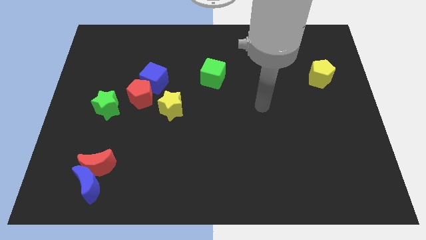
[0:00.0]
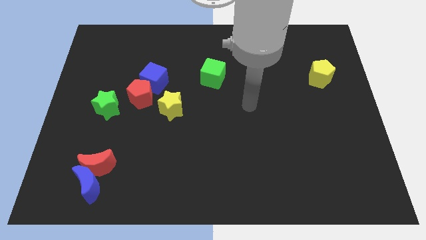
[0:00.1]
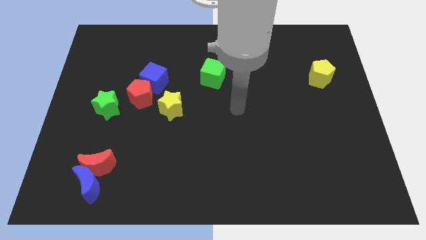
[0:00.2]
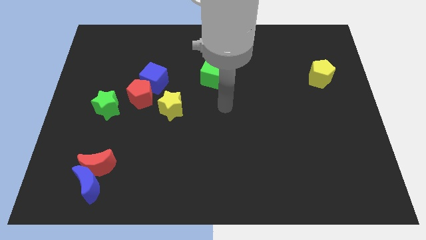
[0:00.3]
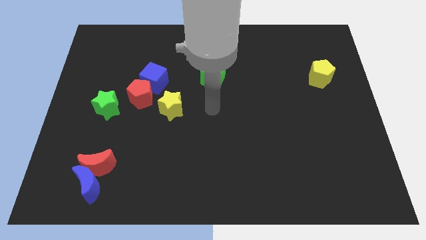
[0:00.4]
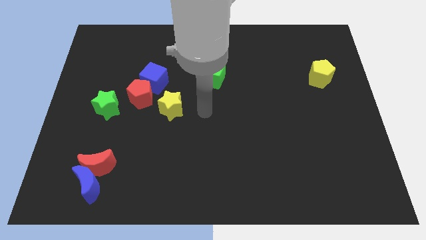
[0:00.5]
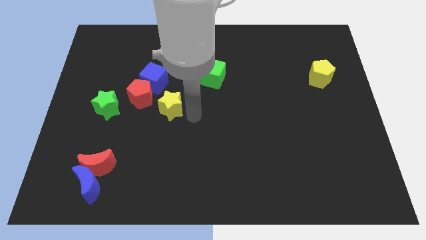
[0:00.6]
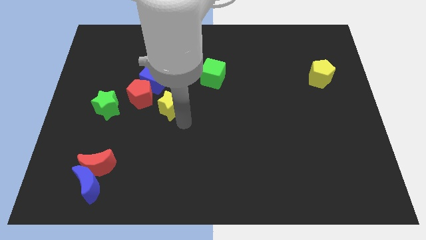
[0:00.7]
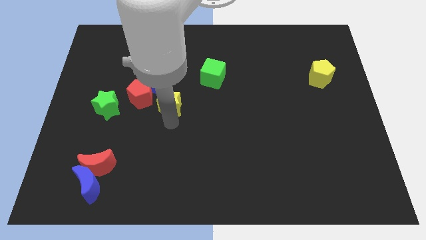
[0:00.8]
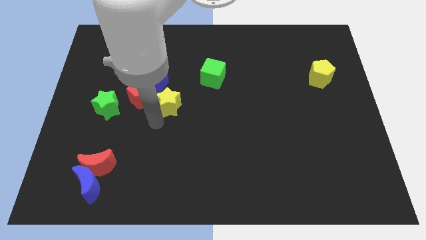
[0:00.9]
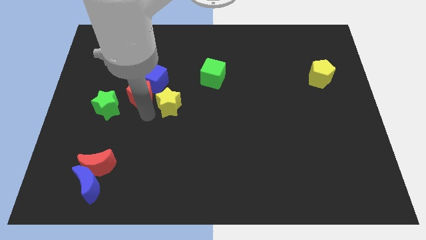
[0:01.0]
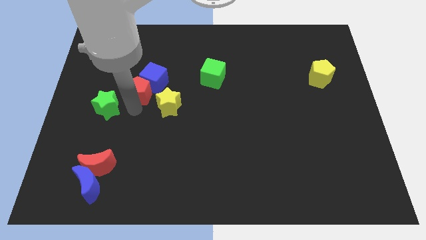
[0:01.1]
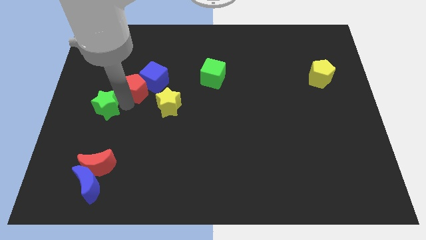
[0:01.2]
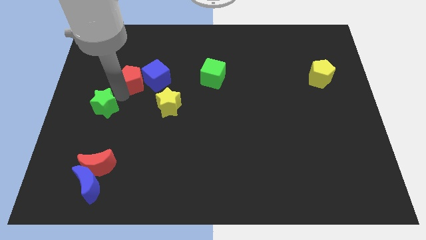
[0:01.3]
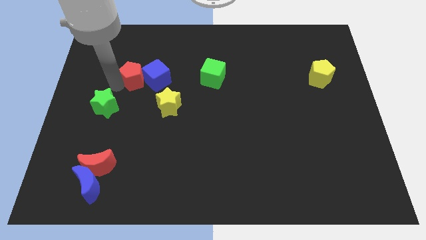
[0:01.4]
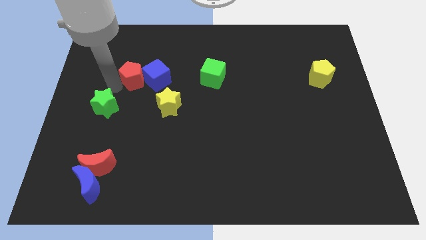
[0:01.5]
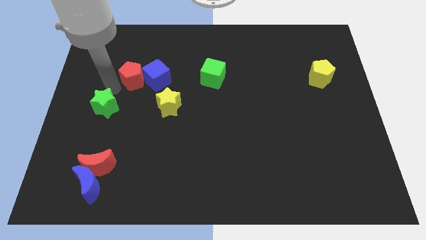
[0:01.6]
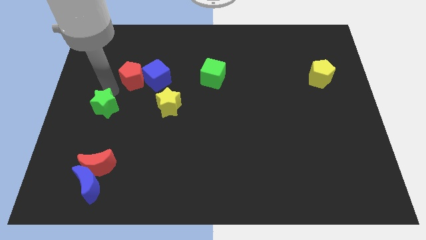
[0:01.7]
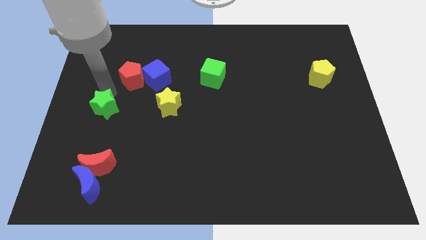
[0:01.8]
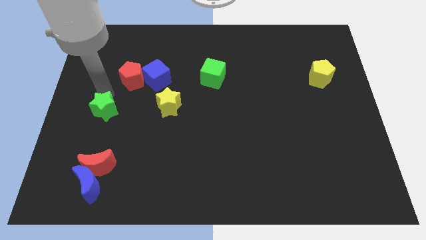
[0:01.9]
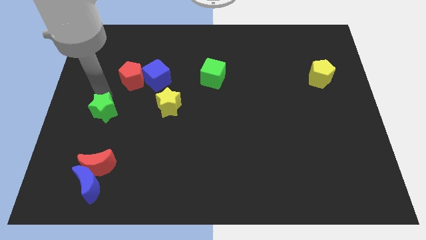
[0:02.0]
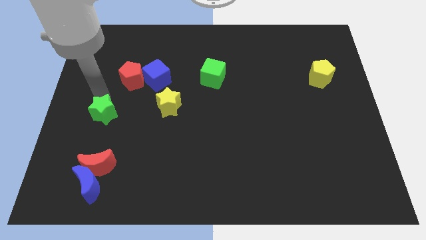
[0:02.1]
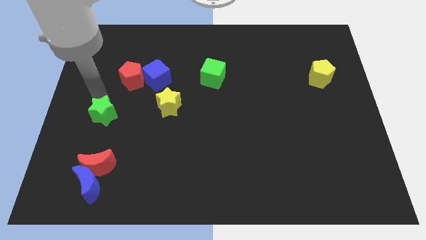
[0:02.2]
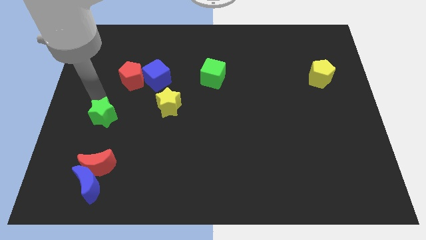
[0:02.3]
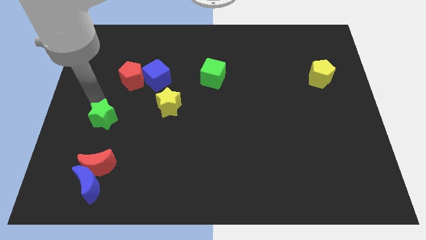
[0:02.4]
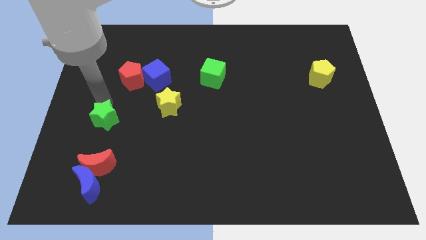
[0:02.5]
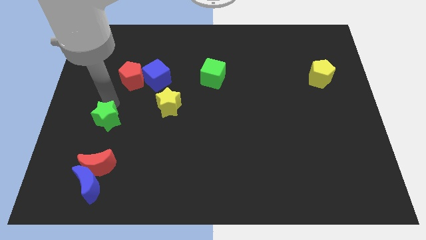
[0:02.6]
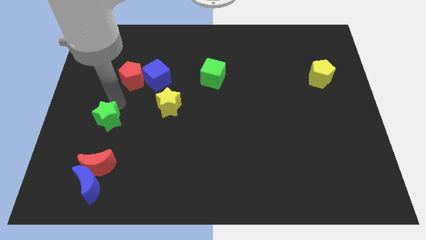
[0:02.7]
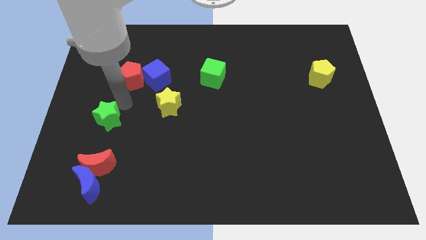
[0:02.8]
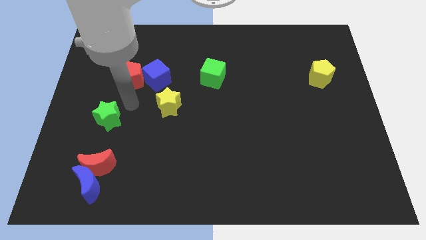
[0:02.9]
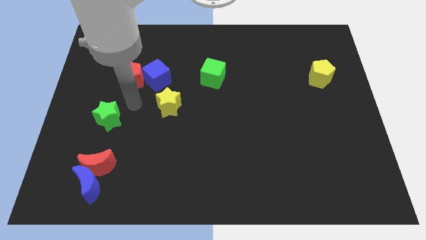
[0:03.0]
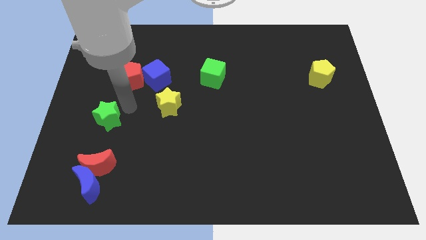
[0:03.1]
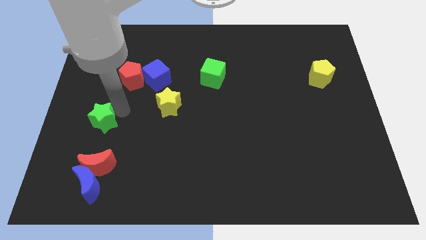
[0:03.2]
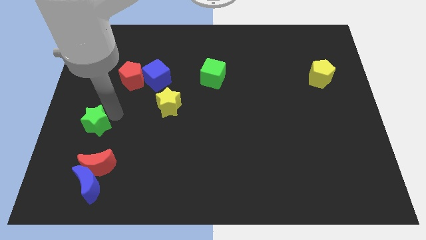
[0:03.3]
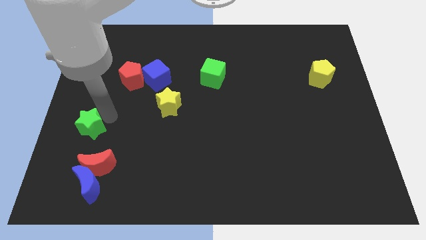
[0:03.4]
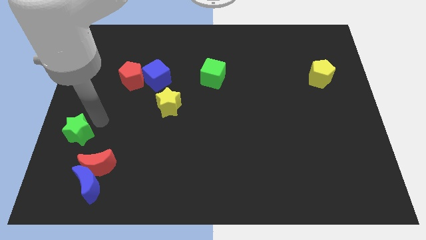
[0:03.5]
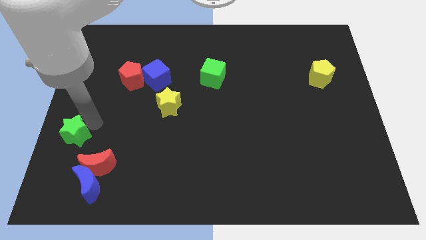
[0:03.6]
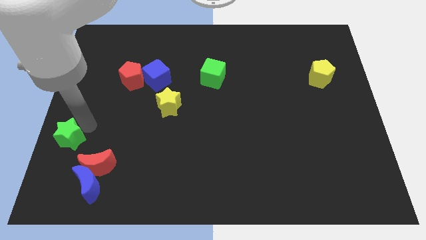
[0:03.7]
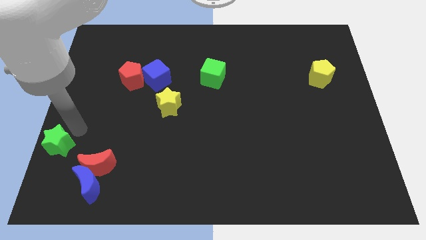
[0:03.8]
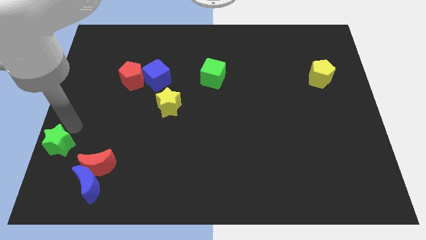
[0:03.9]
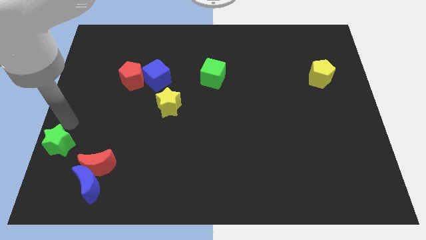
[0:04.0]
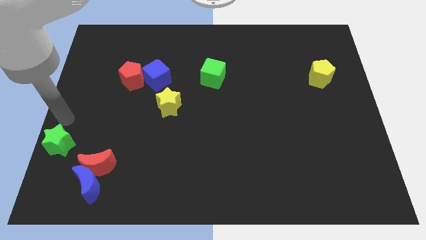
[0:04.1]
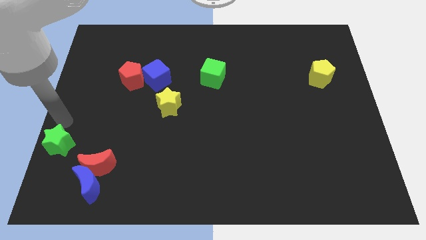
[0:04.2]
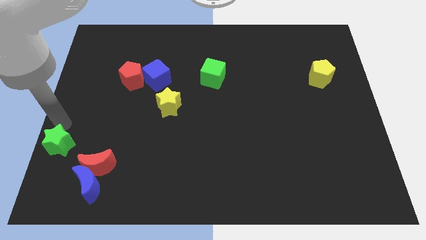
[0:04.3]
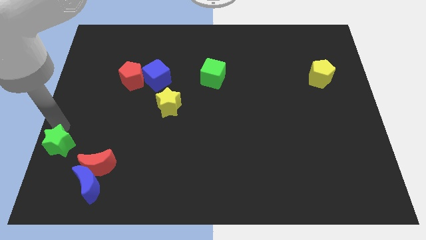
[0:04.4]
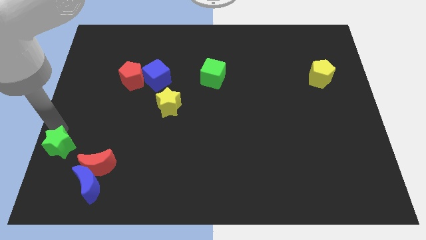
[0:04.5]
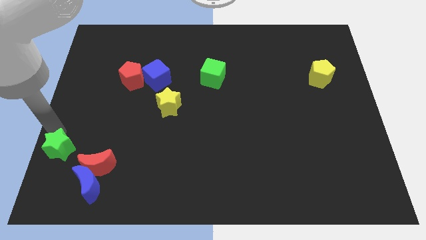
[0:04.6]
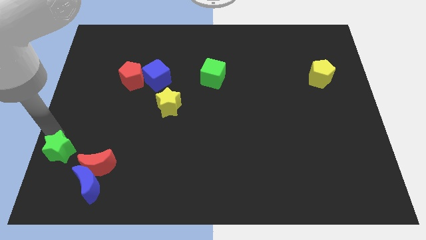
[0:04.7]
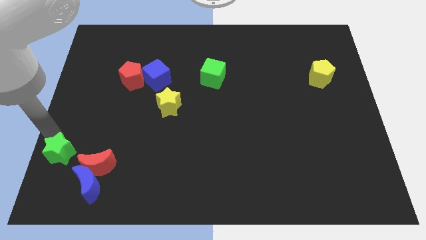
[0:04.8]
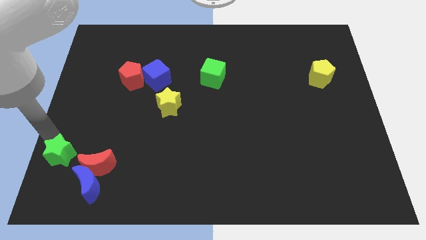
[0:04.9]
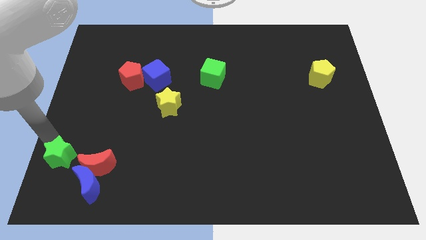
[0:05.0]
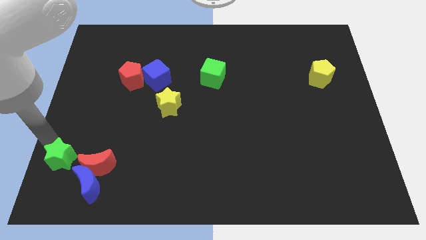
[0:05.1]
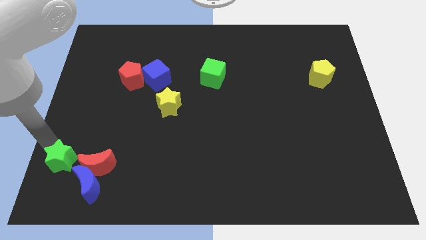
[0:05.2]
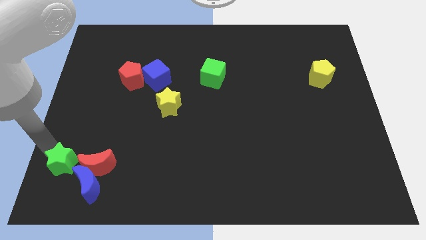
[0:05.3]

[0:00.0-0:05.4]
slide the green star to the lower left corner

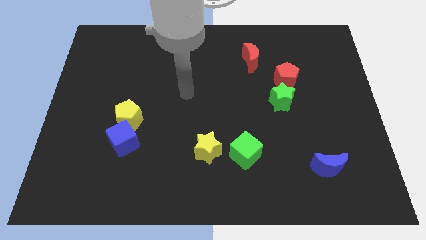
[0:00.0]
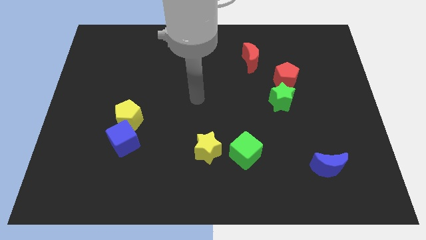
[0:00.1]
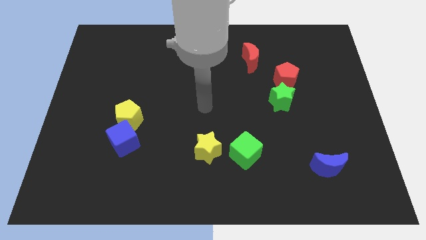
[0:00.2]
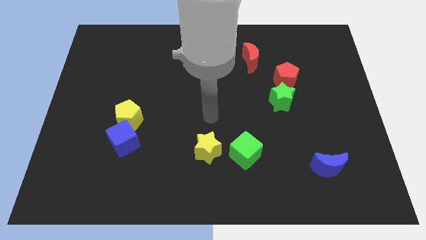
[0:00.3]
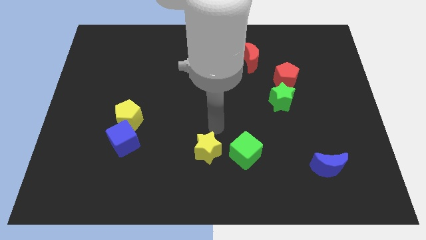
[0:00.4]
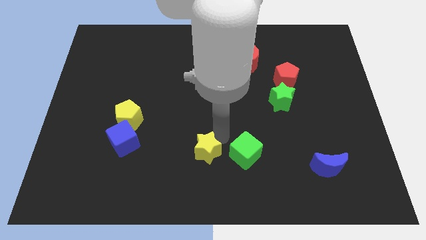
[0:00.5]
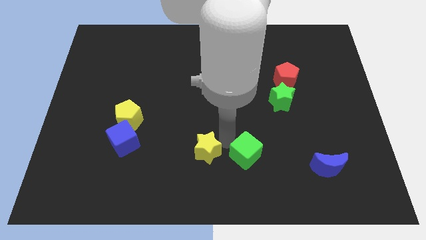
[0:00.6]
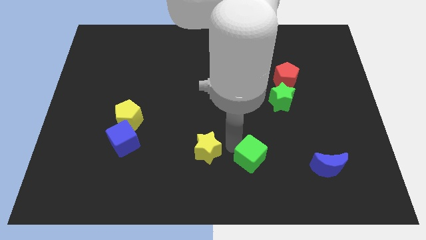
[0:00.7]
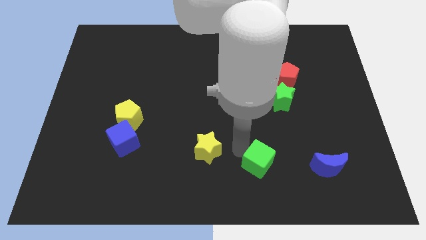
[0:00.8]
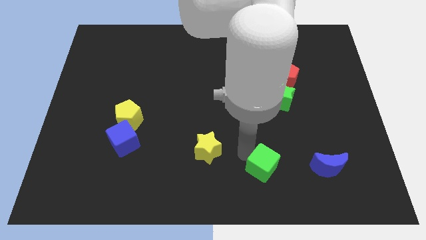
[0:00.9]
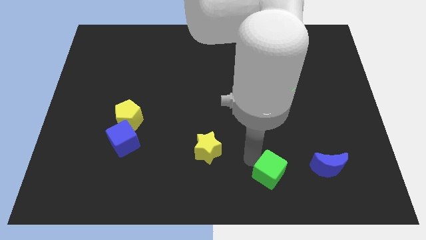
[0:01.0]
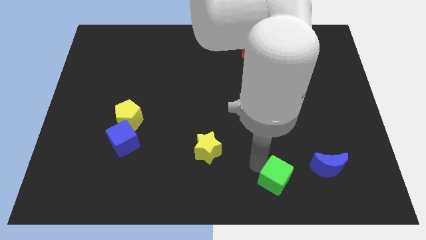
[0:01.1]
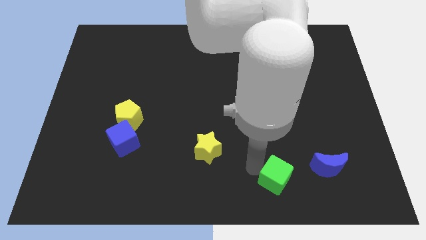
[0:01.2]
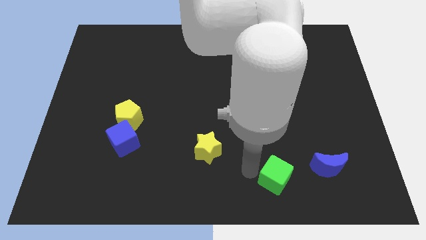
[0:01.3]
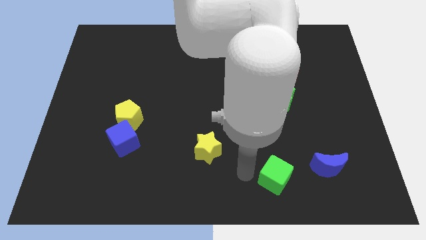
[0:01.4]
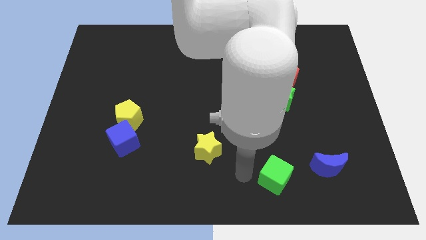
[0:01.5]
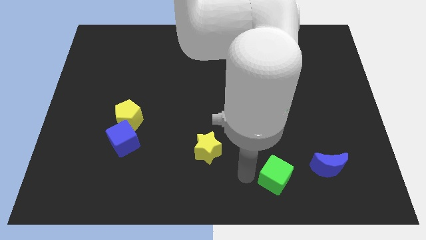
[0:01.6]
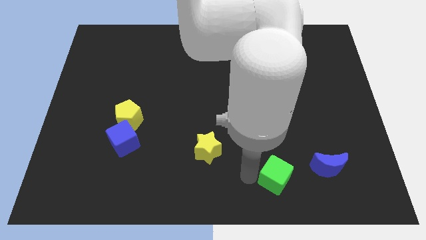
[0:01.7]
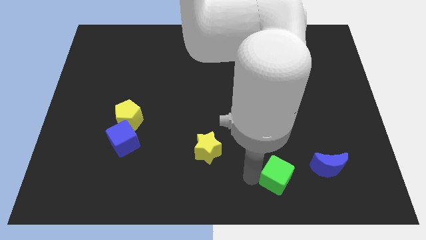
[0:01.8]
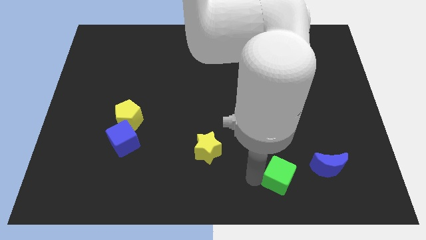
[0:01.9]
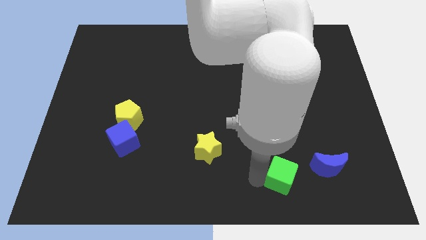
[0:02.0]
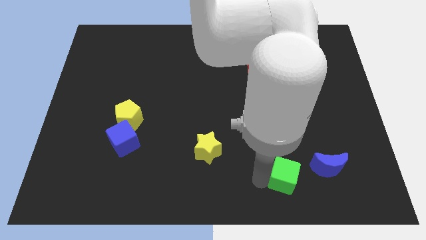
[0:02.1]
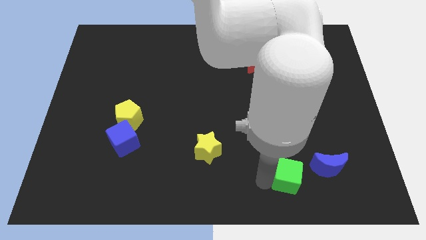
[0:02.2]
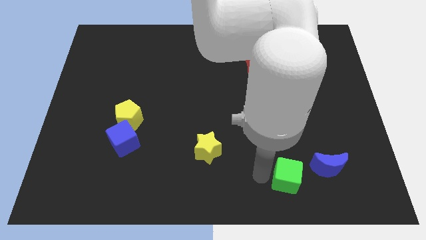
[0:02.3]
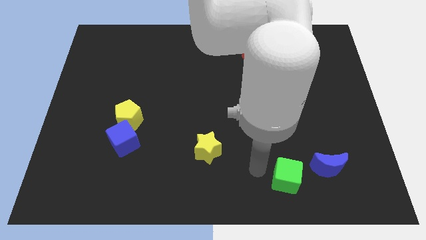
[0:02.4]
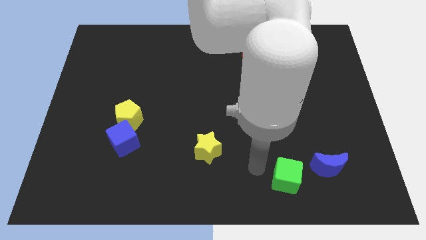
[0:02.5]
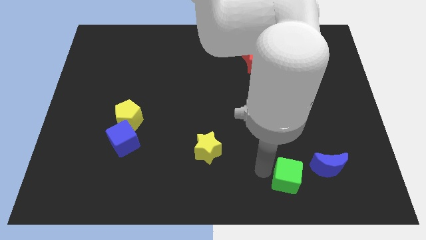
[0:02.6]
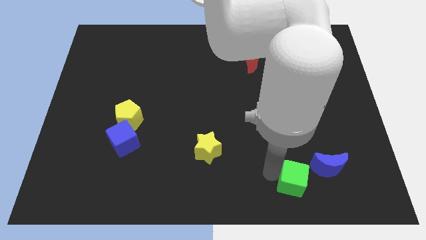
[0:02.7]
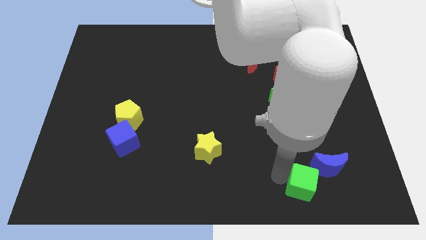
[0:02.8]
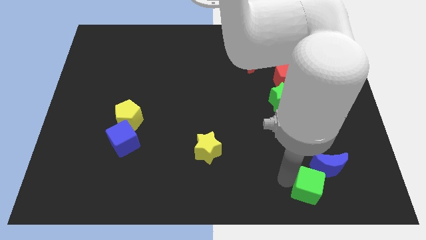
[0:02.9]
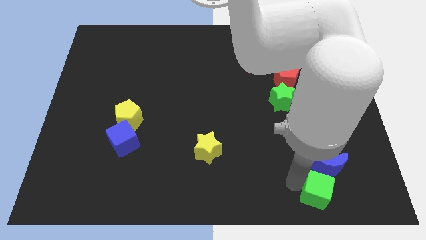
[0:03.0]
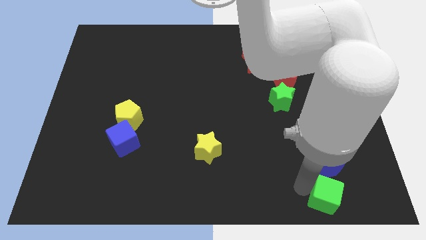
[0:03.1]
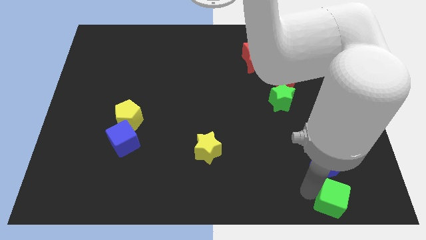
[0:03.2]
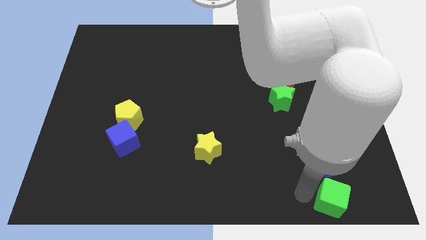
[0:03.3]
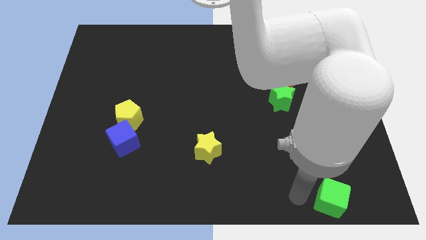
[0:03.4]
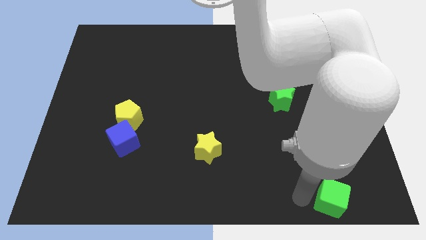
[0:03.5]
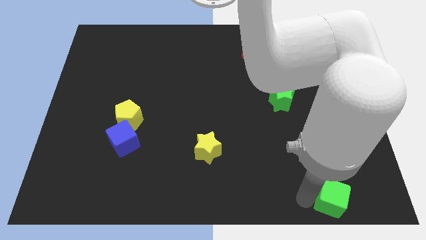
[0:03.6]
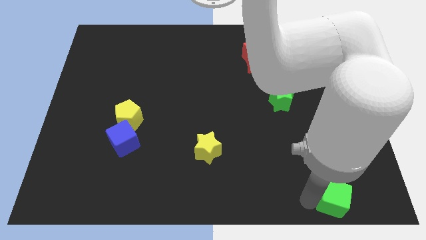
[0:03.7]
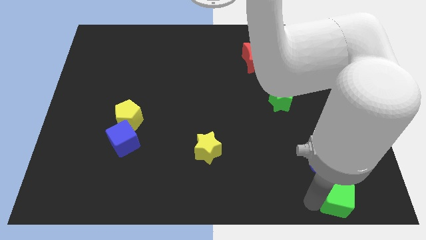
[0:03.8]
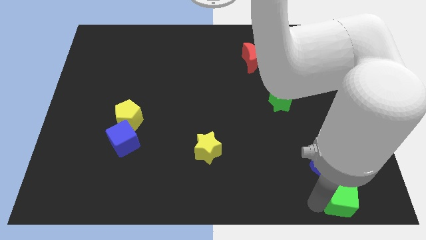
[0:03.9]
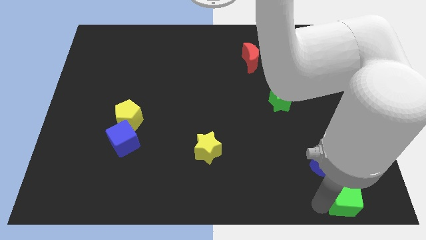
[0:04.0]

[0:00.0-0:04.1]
move the green cube to the bottom right of the board
